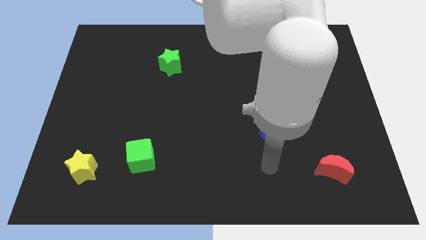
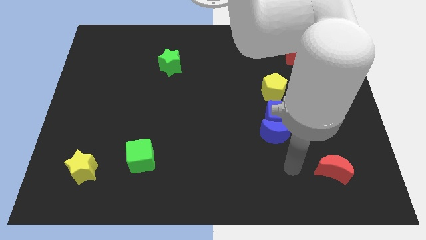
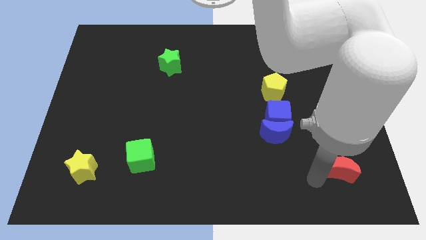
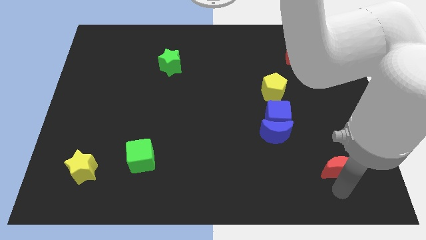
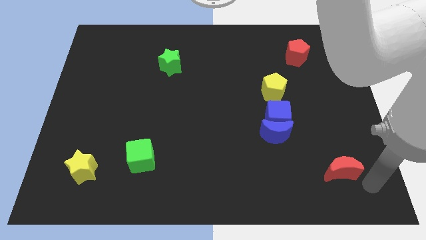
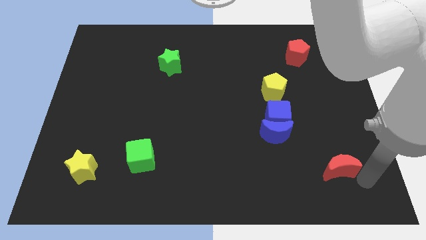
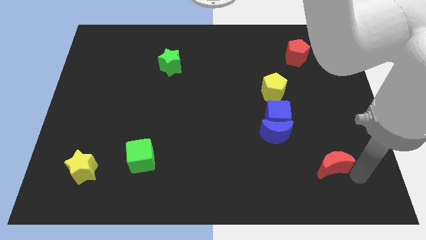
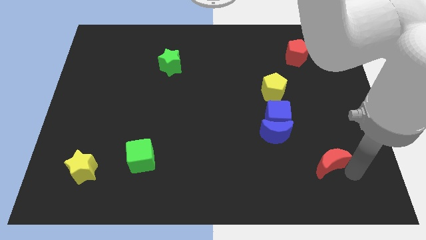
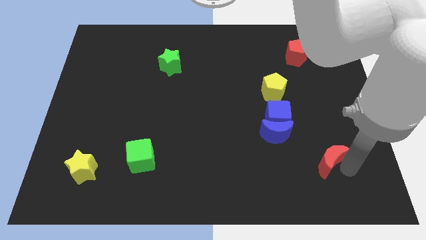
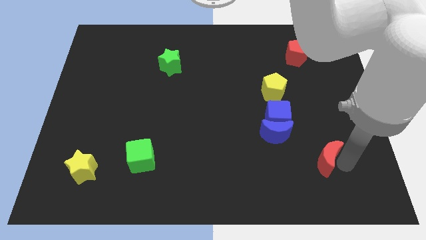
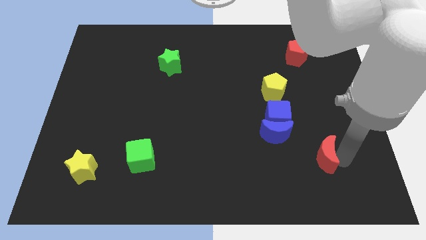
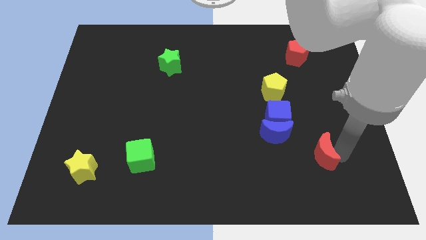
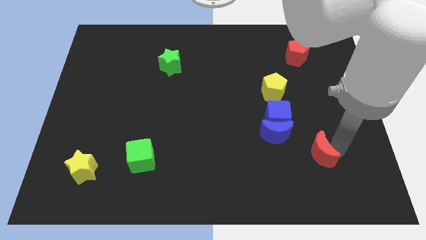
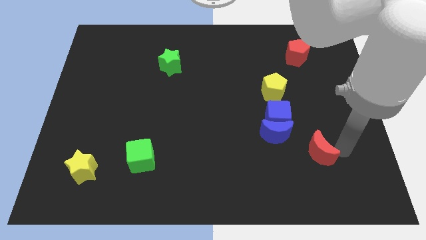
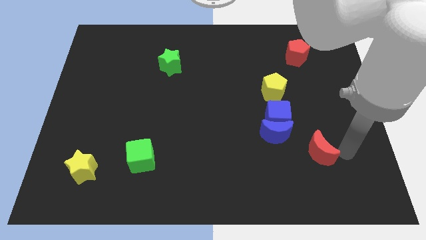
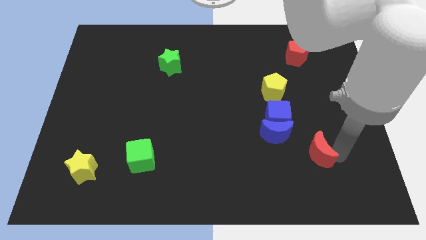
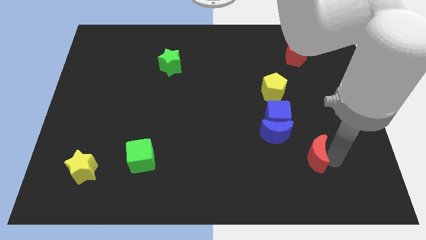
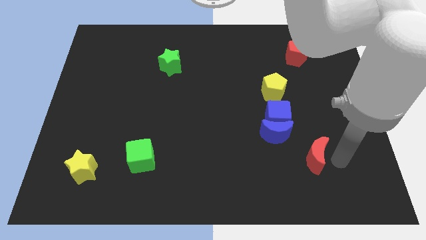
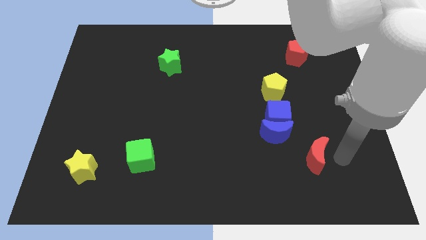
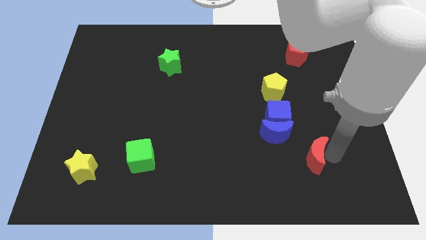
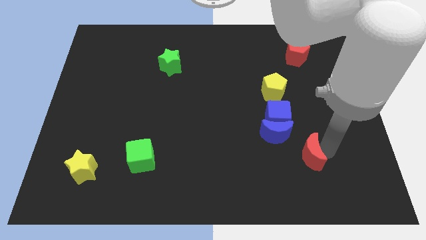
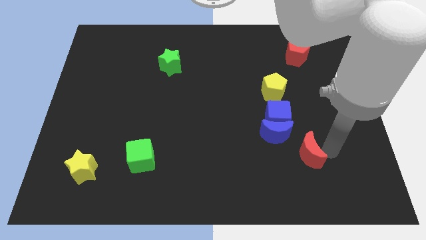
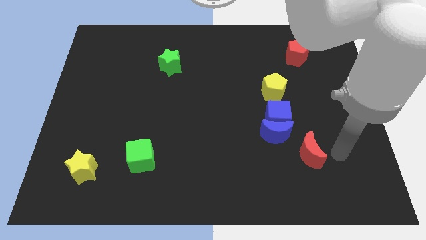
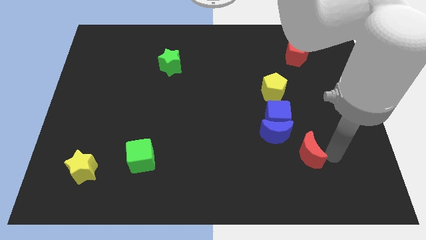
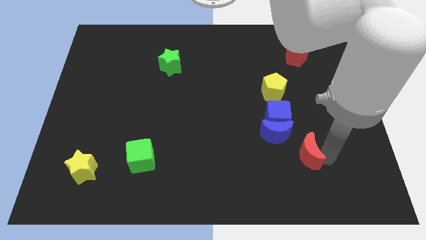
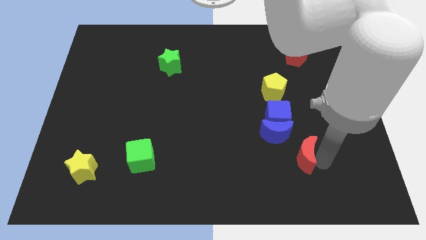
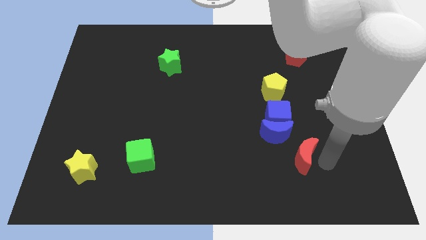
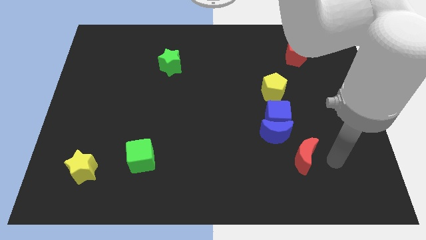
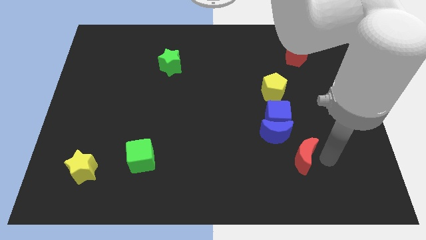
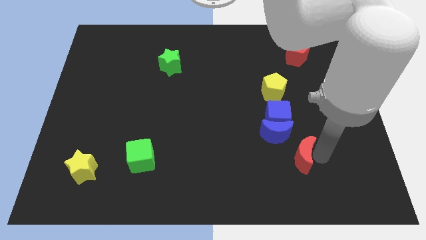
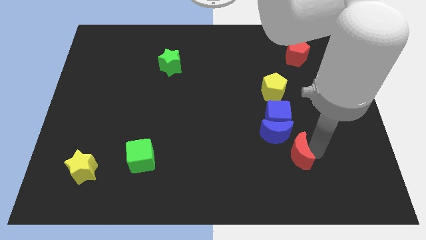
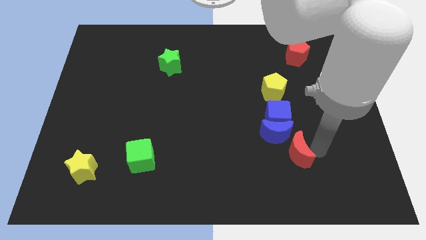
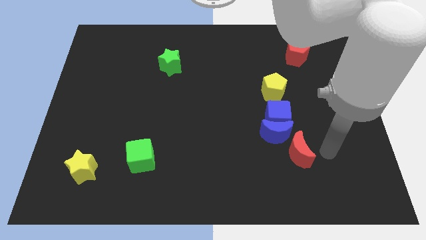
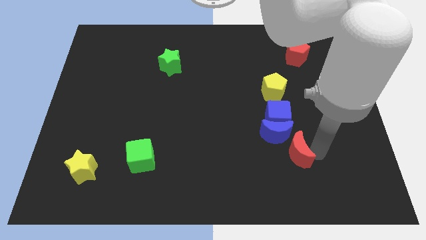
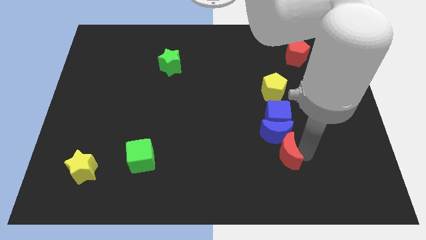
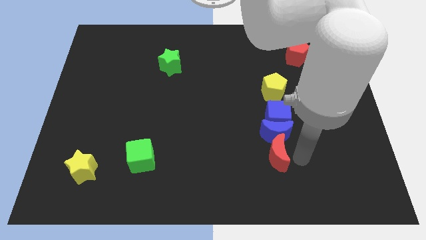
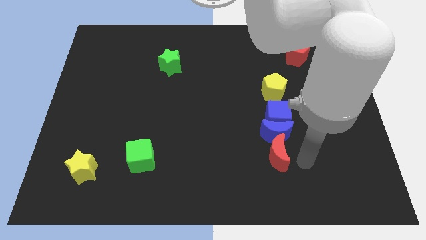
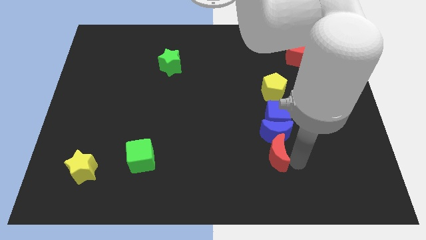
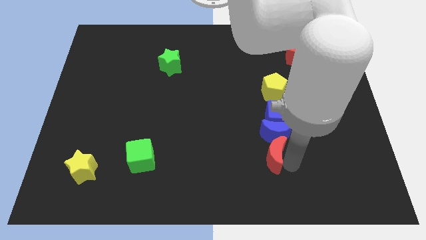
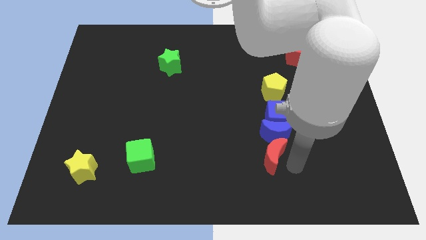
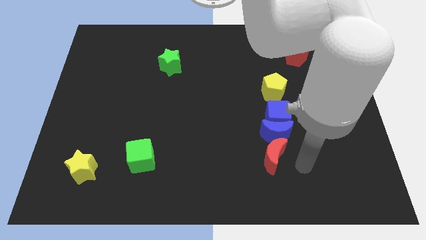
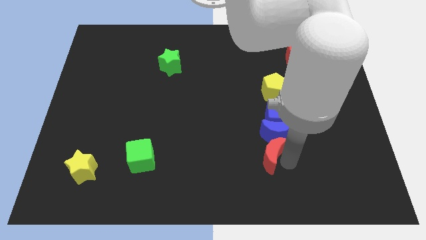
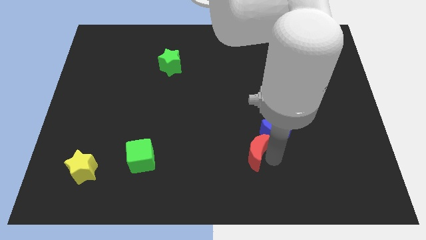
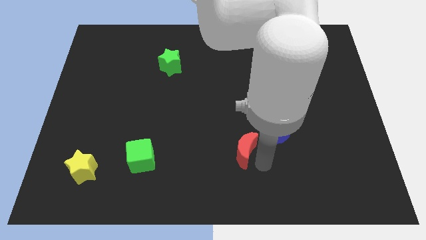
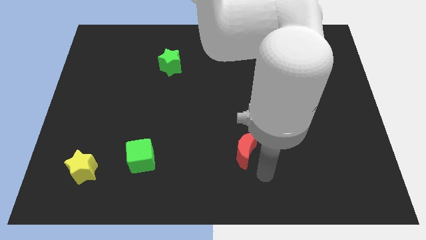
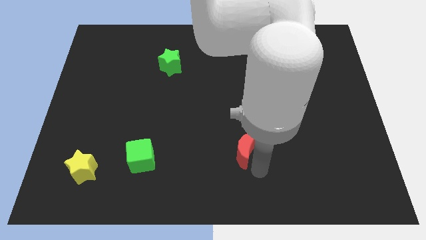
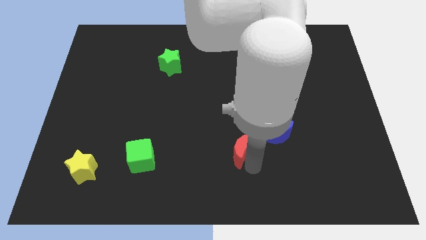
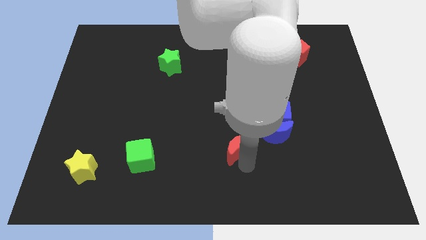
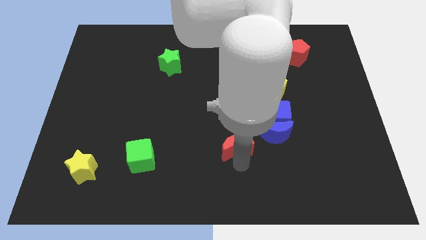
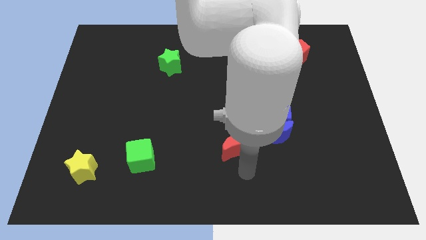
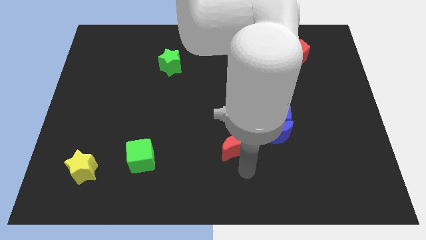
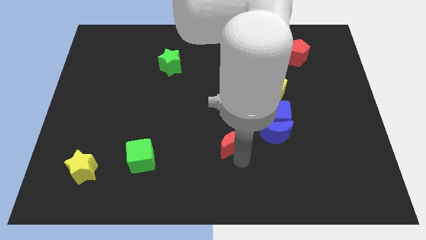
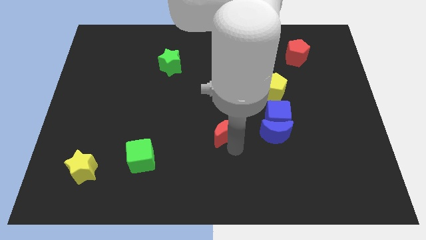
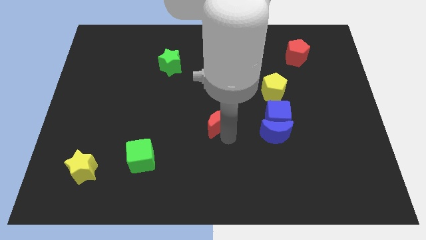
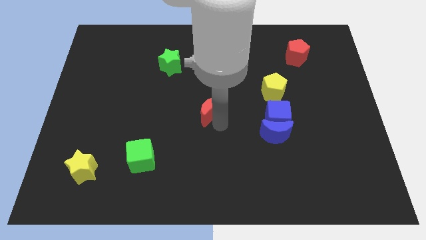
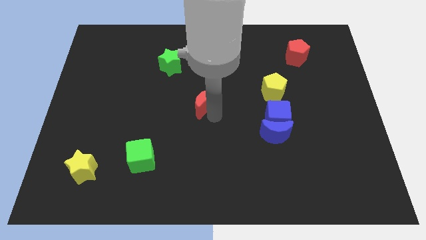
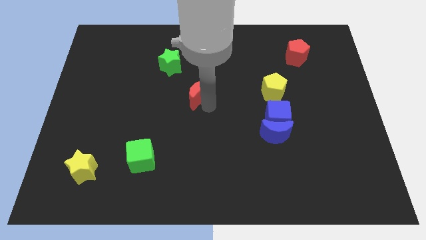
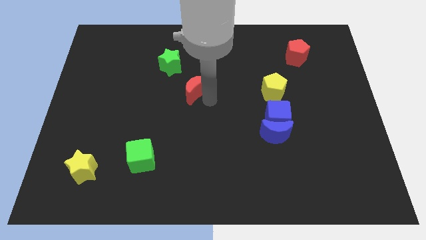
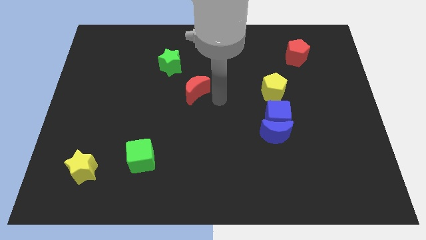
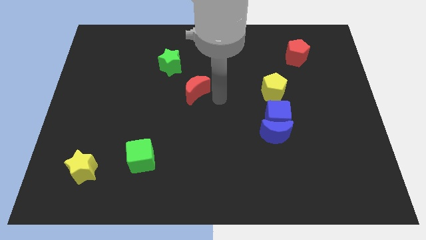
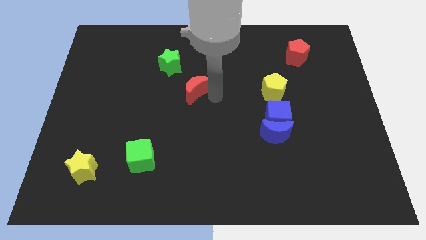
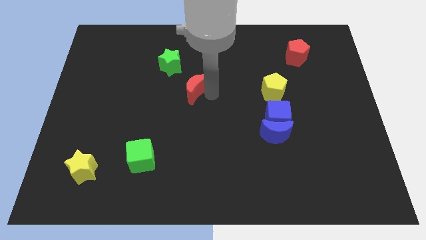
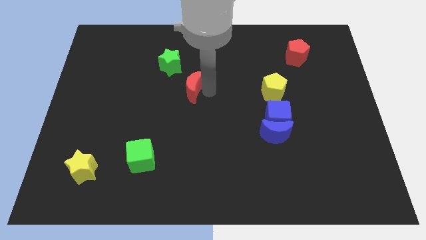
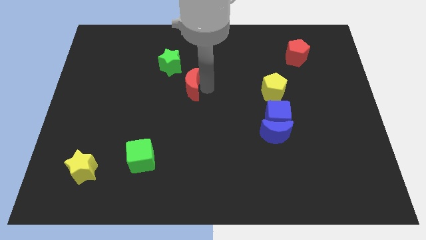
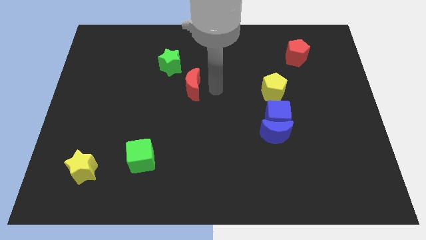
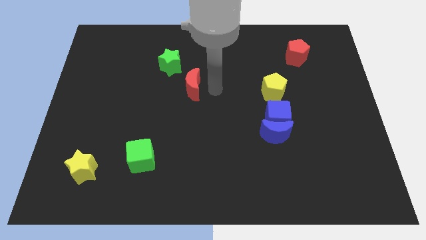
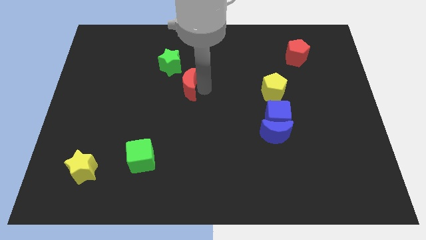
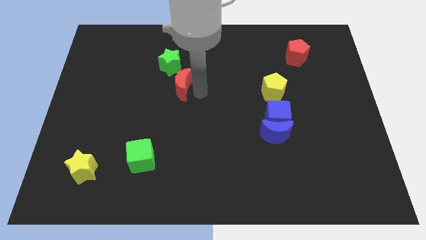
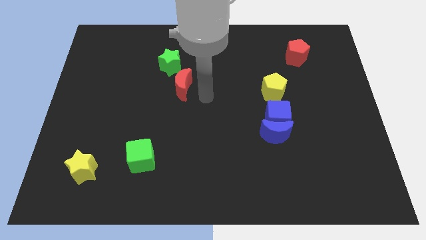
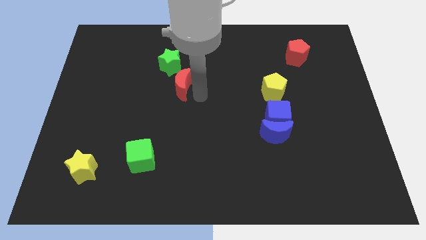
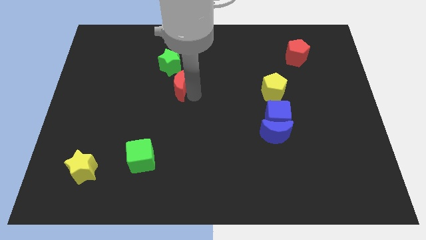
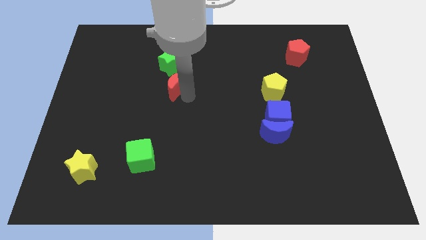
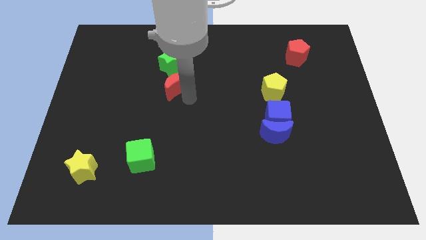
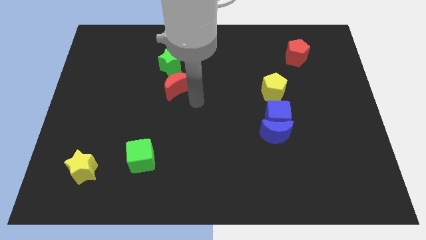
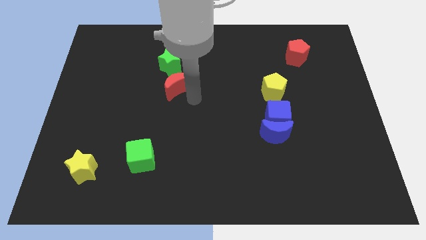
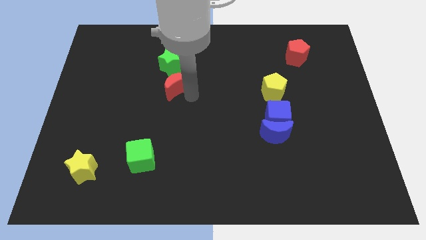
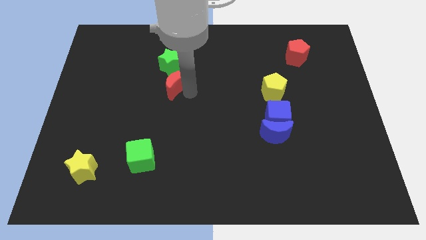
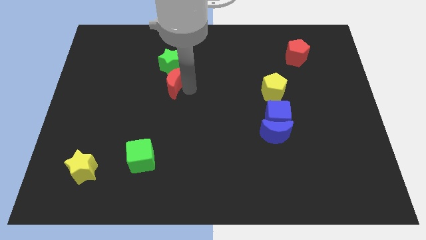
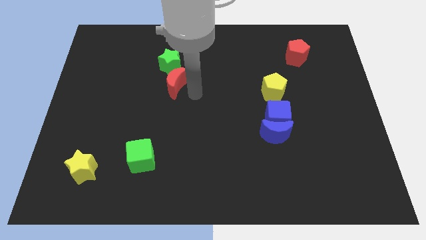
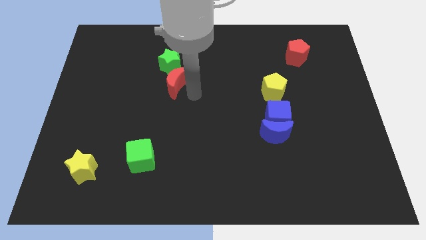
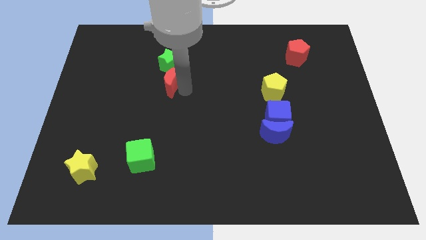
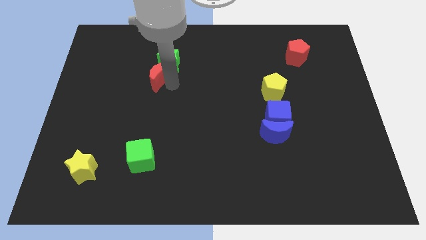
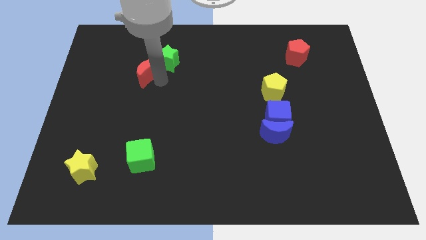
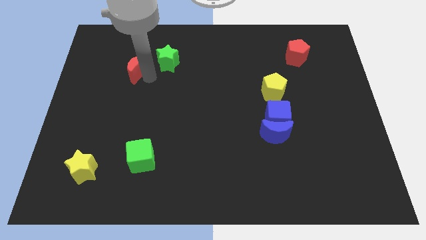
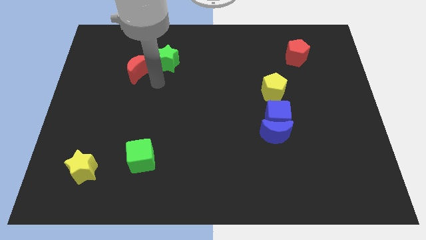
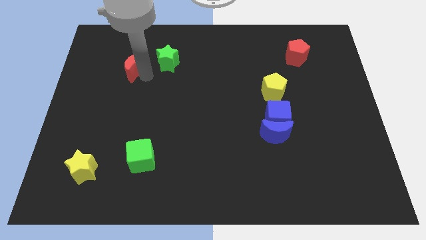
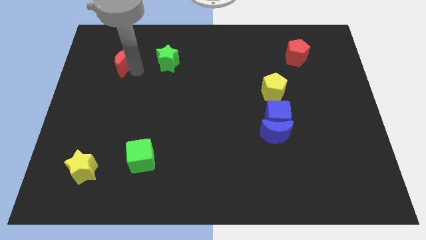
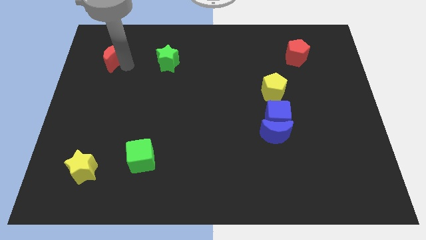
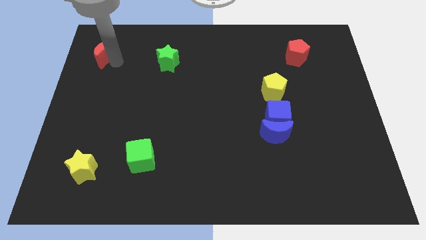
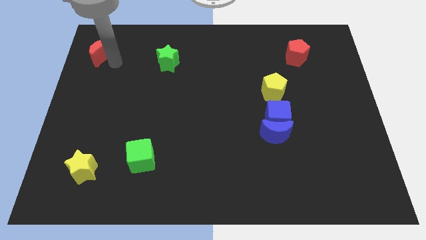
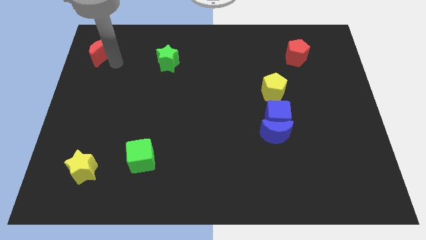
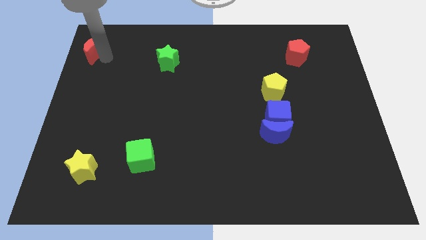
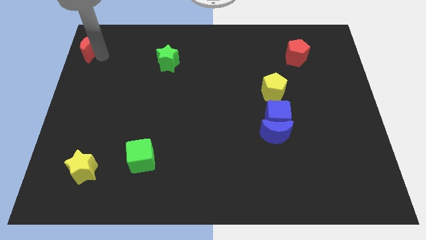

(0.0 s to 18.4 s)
move the red moon to the top left
